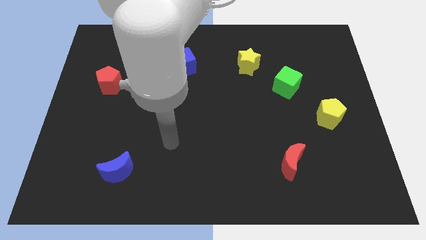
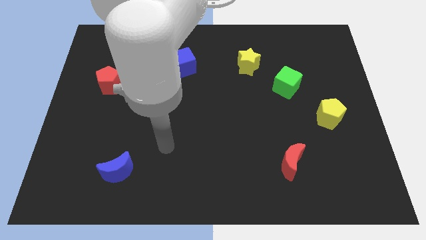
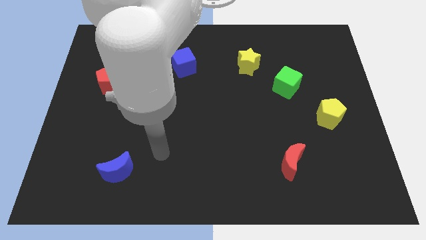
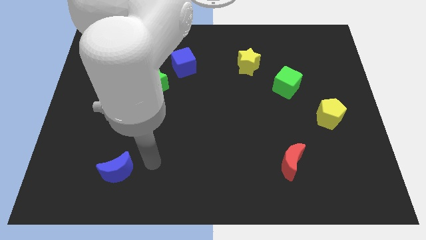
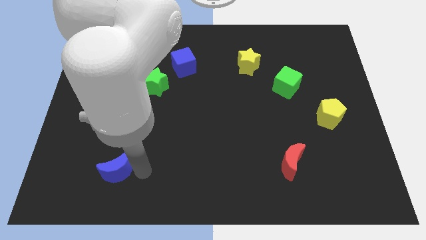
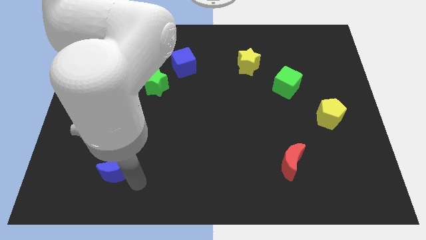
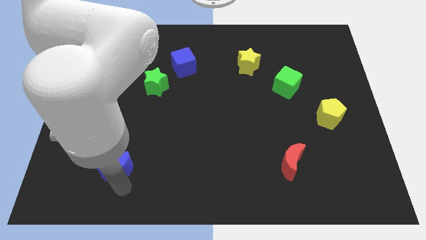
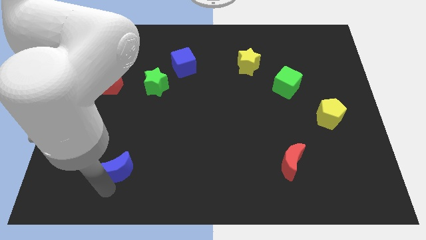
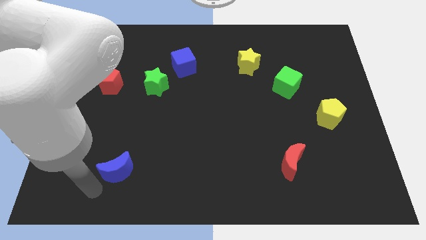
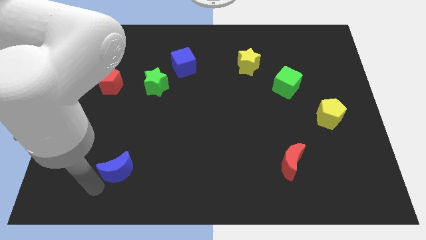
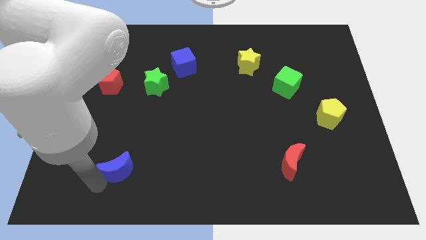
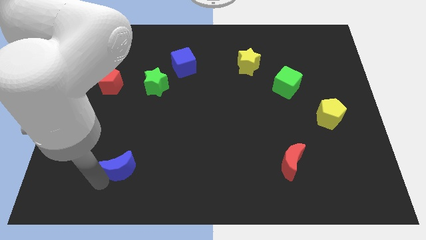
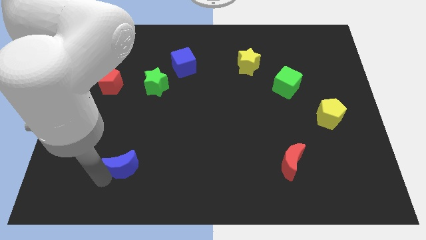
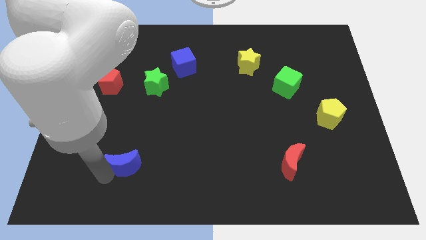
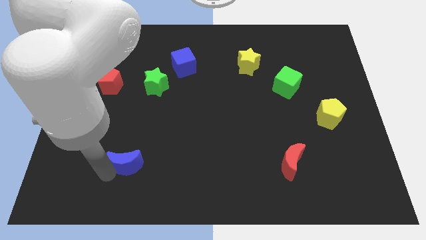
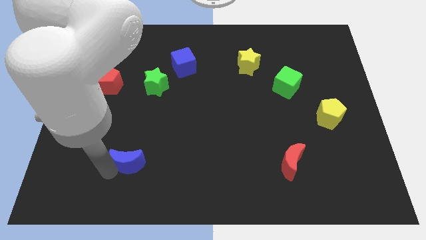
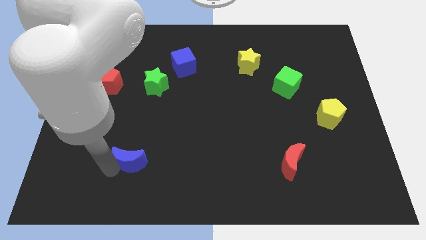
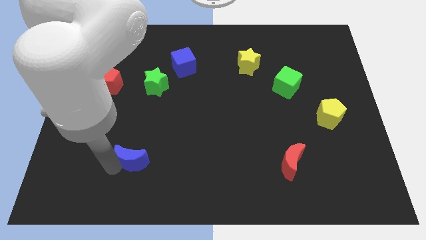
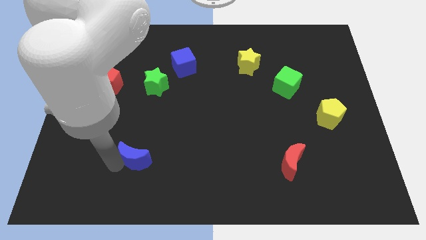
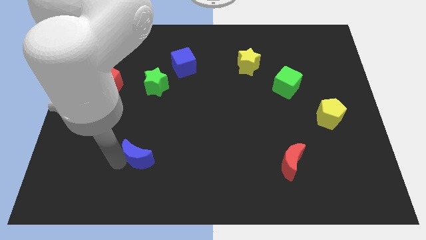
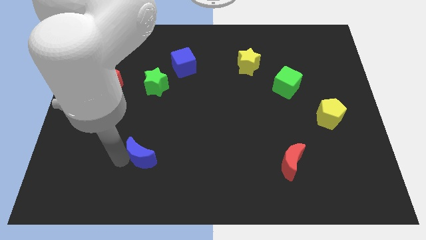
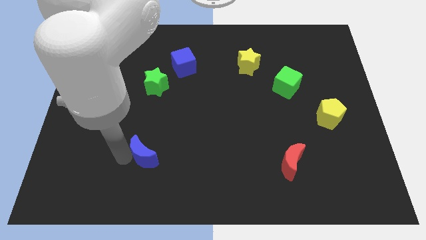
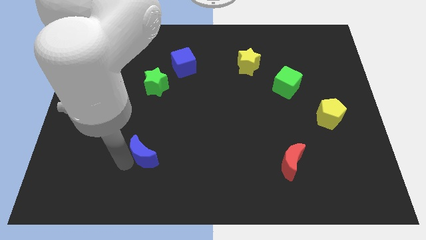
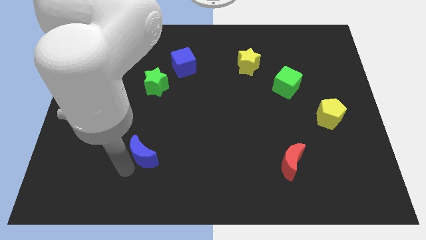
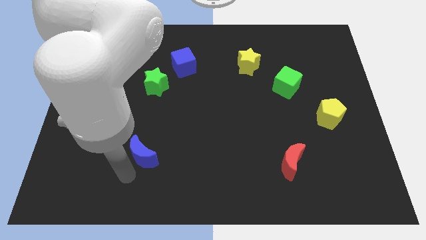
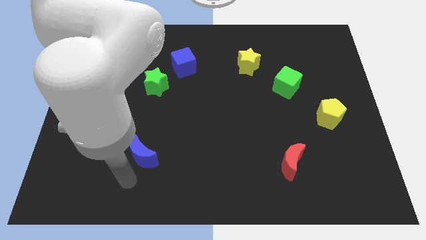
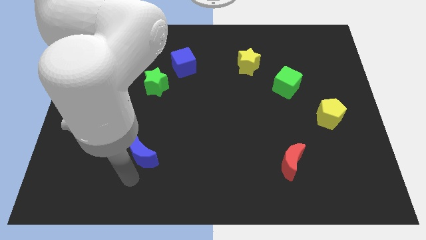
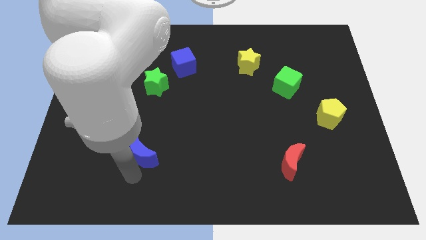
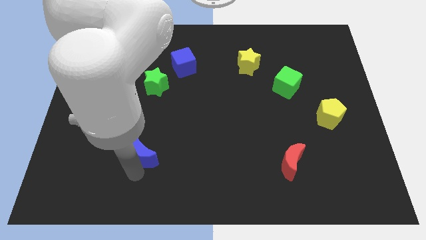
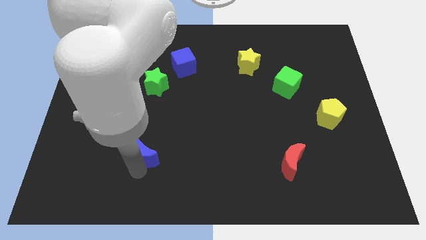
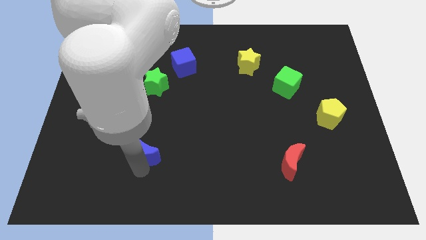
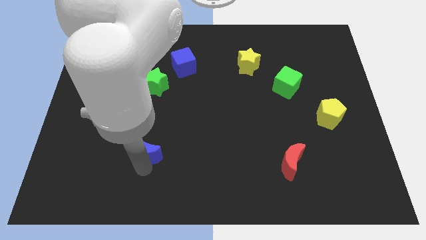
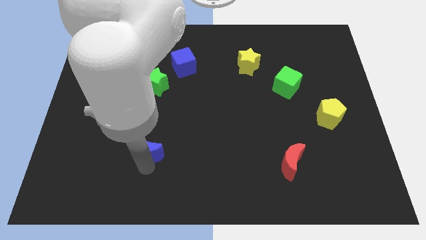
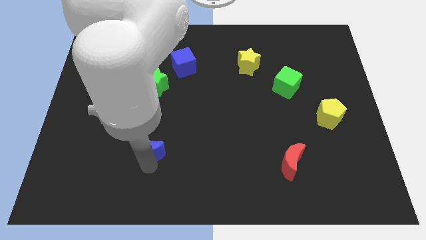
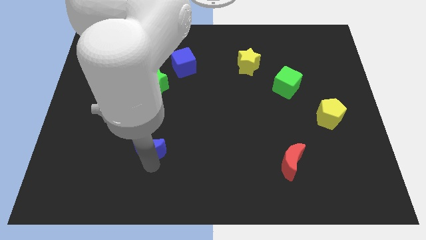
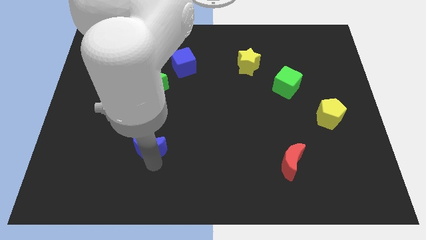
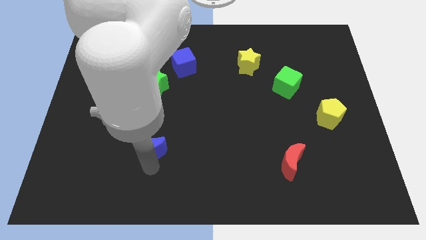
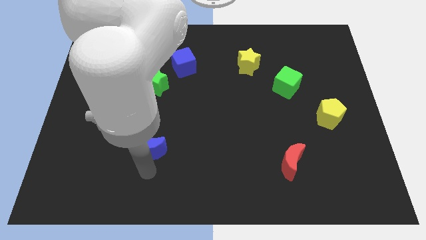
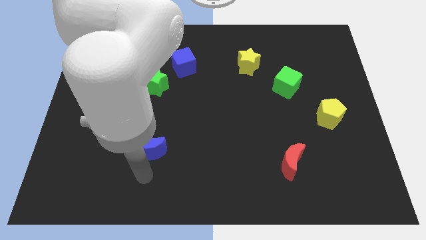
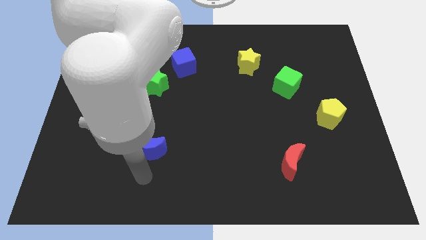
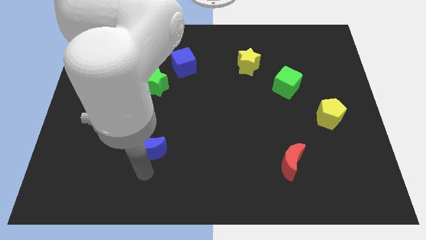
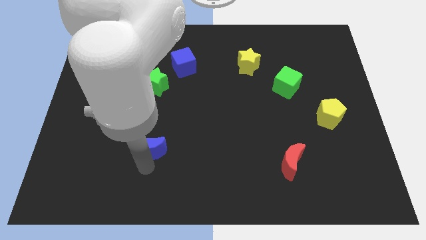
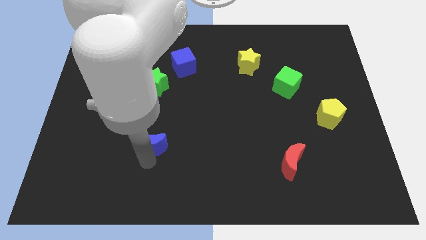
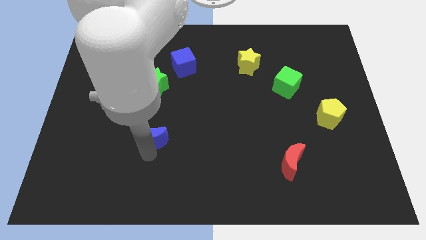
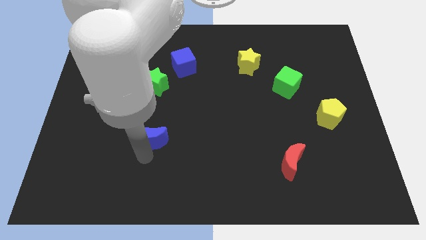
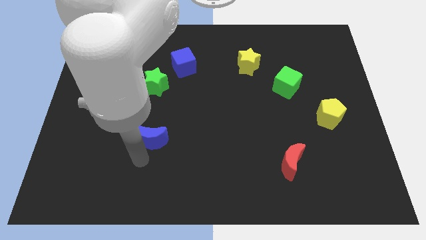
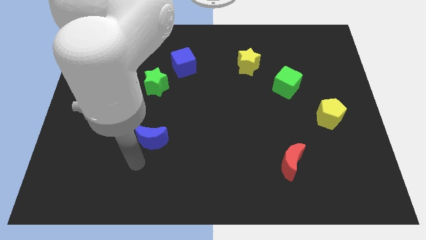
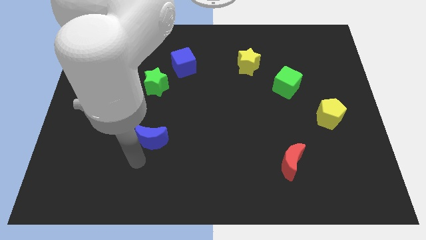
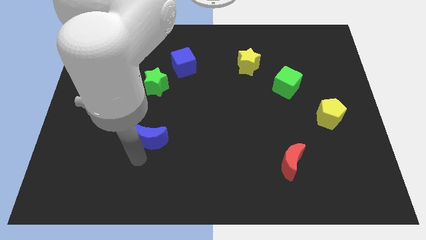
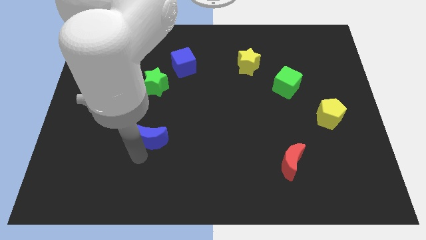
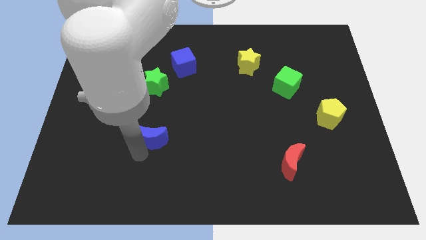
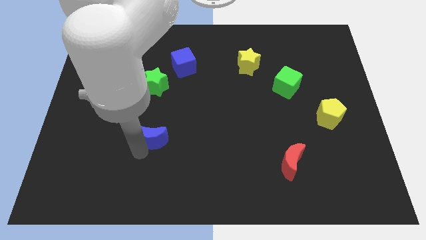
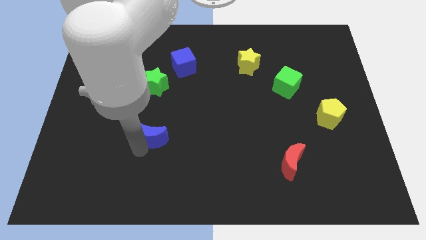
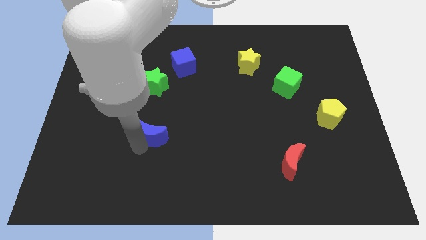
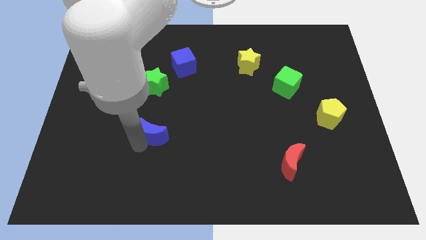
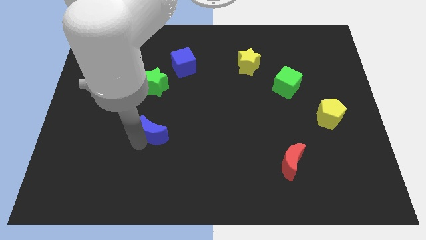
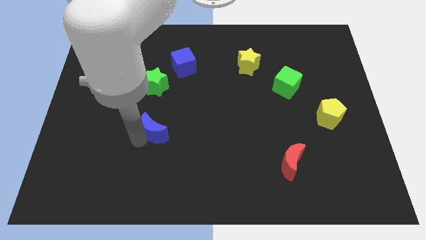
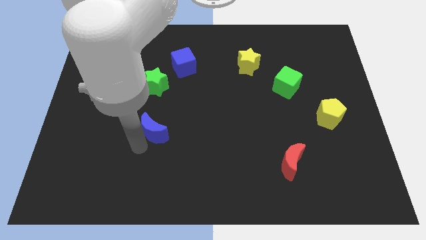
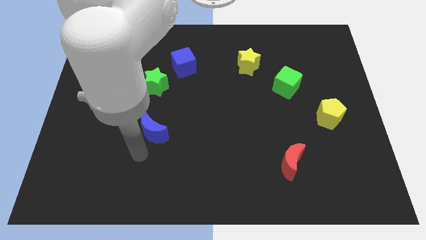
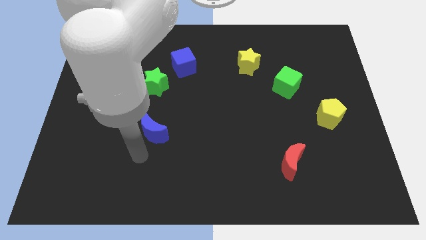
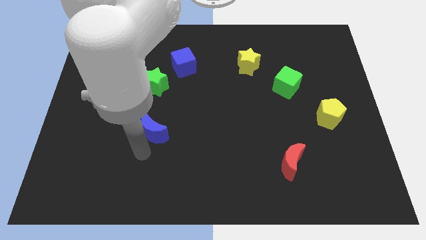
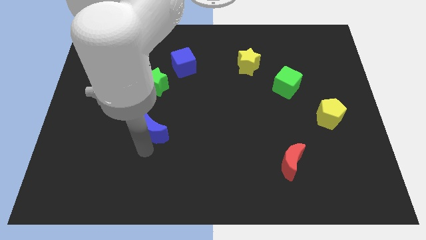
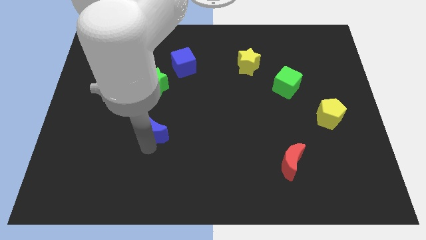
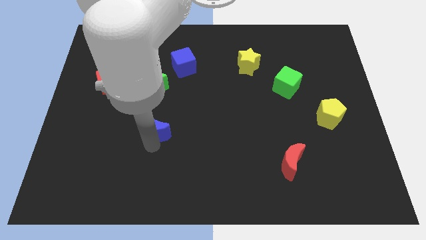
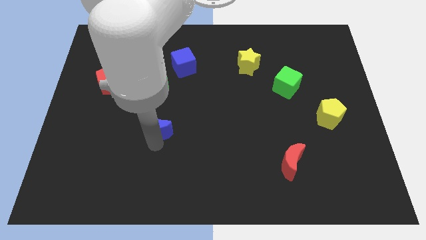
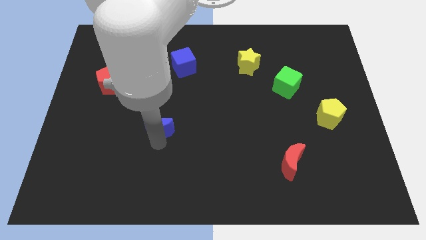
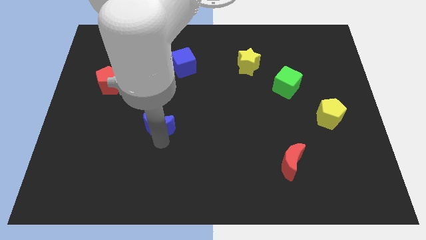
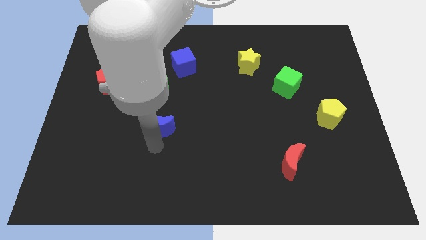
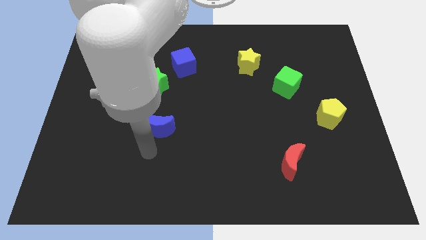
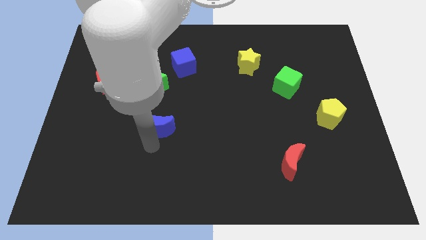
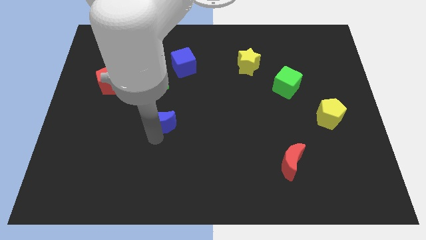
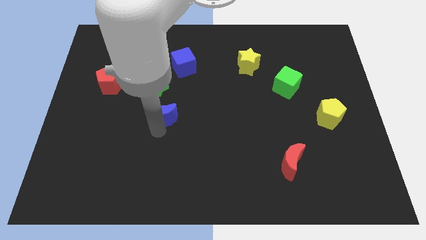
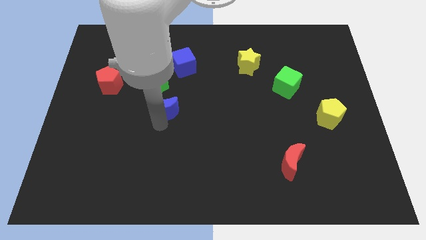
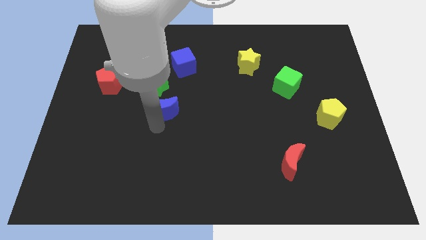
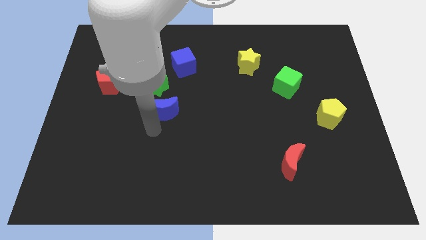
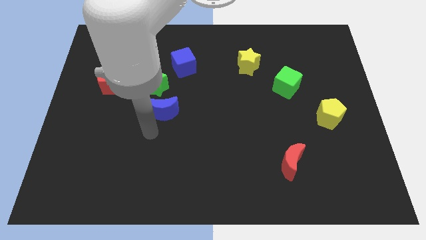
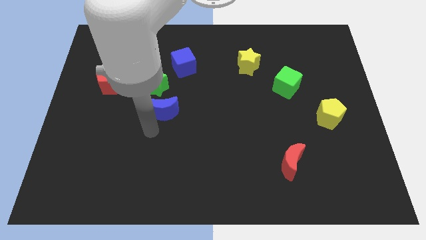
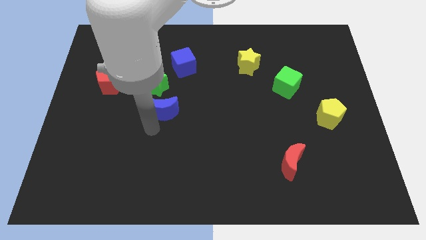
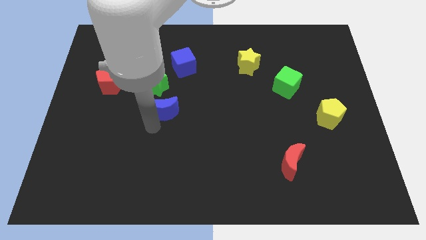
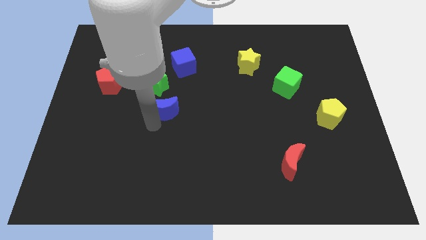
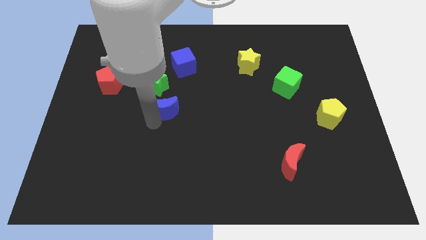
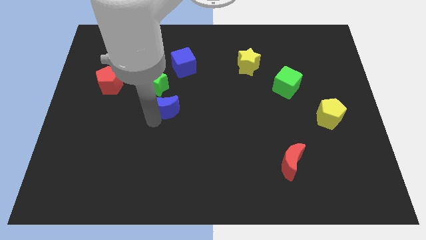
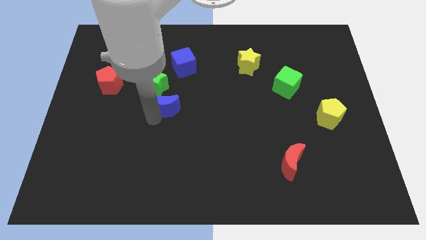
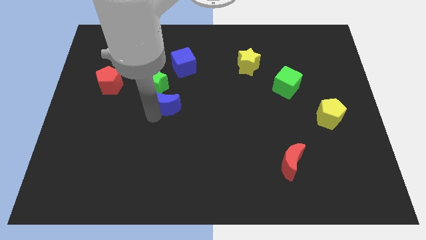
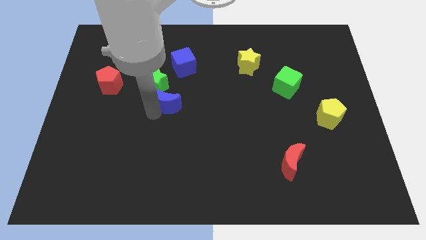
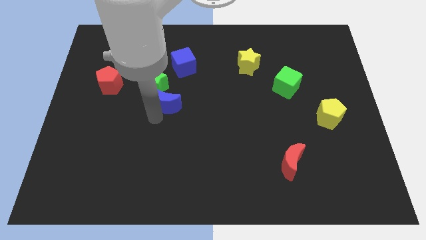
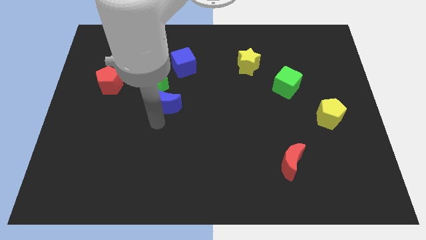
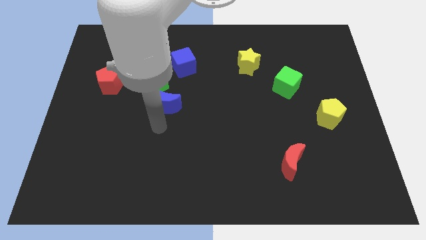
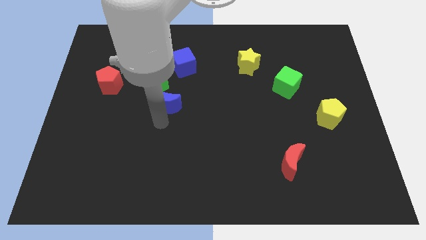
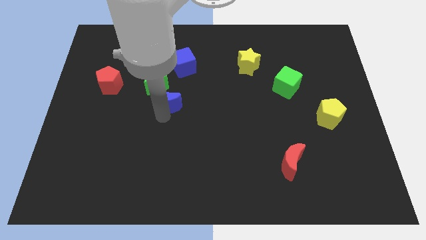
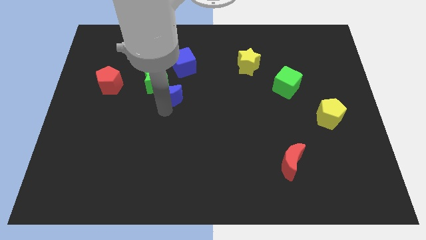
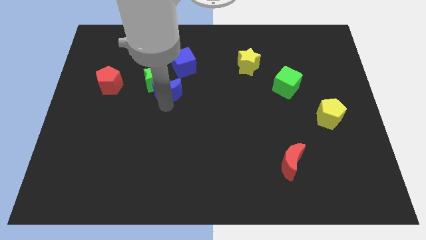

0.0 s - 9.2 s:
push the blue moon to the right side of the red pentagon
